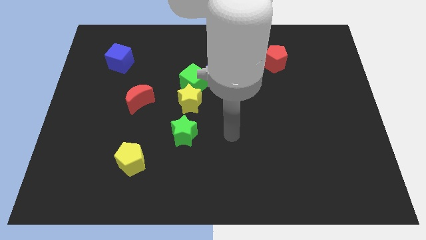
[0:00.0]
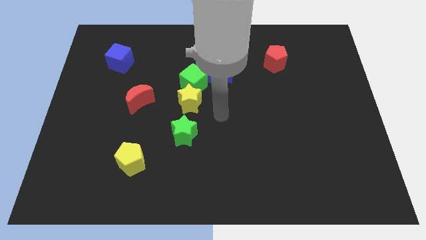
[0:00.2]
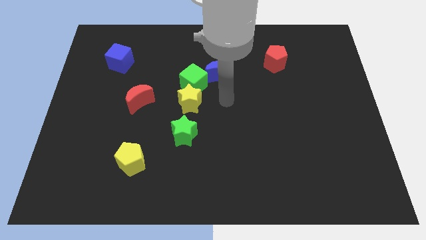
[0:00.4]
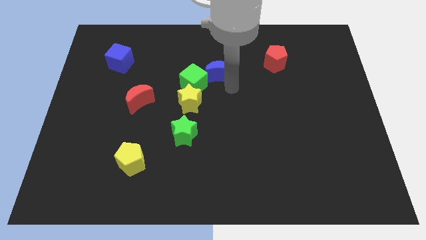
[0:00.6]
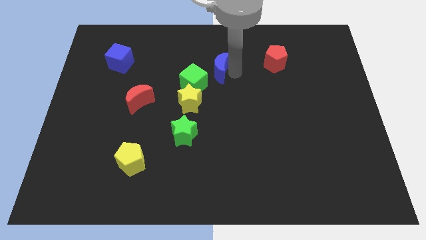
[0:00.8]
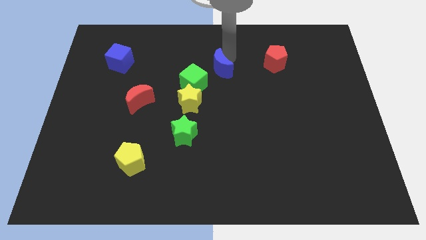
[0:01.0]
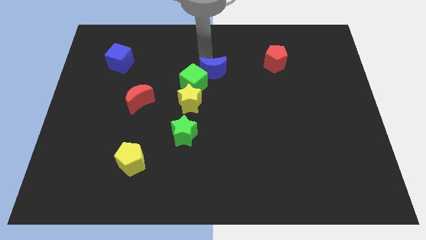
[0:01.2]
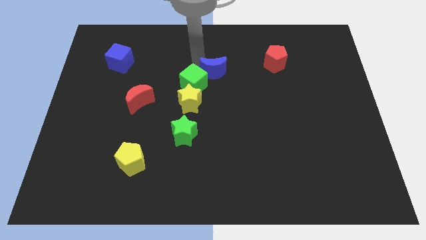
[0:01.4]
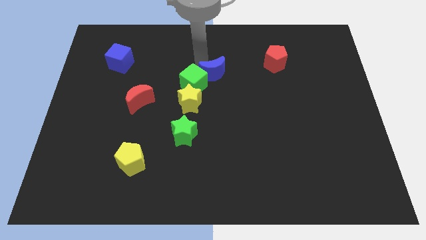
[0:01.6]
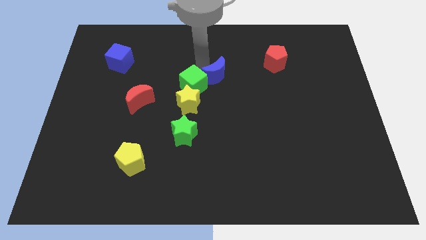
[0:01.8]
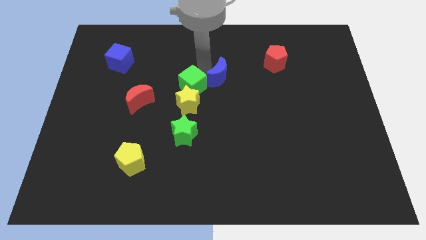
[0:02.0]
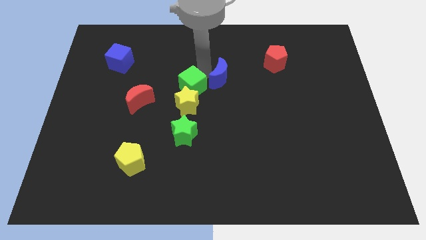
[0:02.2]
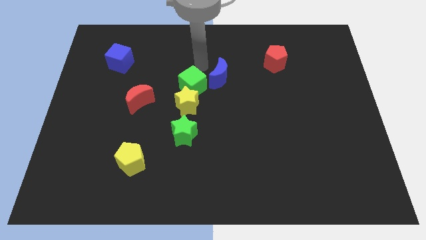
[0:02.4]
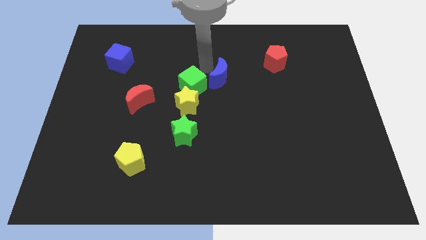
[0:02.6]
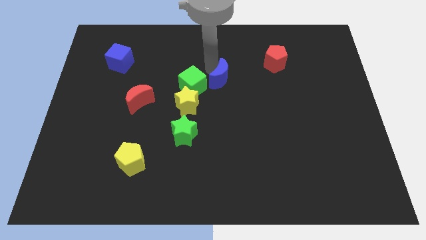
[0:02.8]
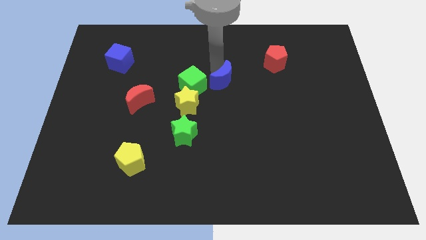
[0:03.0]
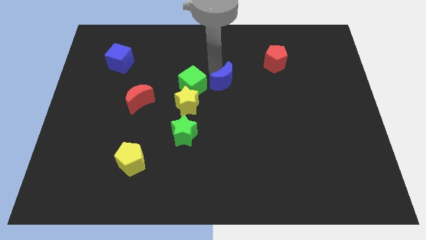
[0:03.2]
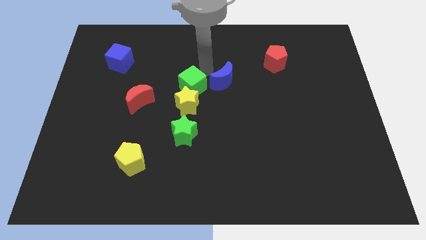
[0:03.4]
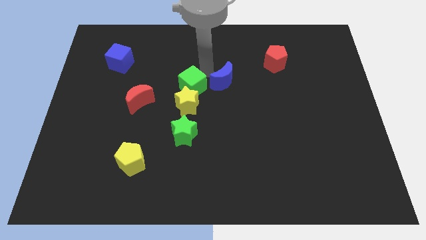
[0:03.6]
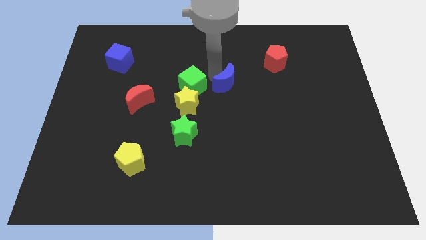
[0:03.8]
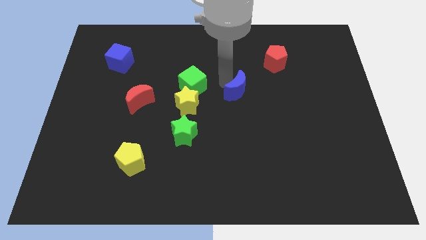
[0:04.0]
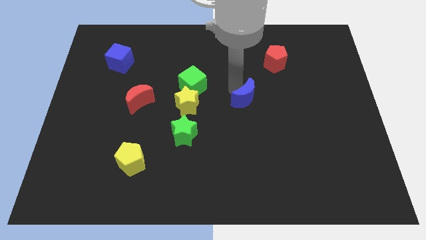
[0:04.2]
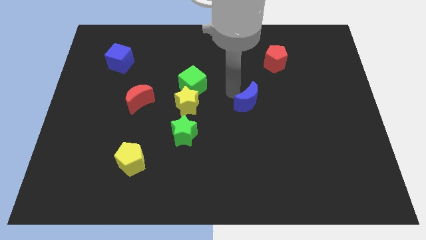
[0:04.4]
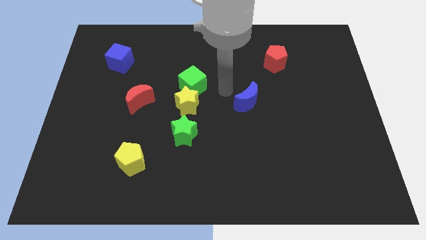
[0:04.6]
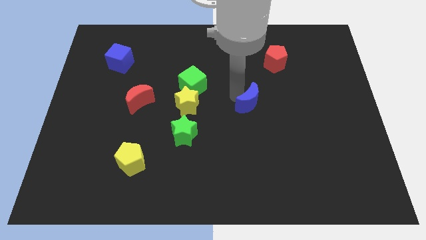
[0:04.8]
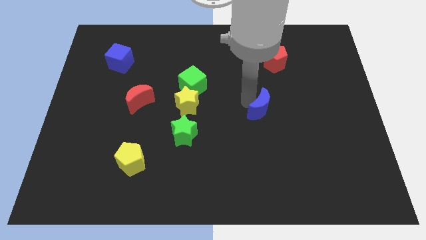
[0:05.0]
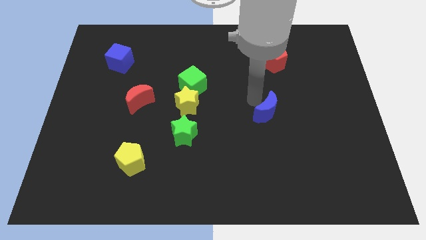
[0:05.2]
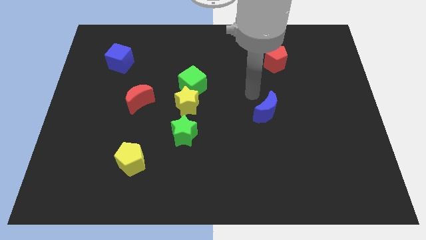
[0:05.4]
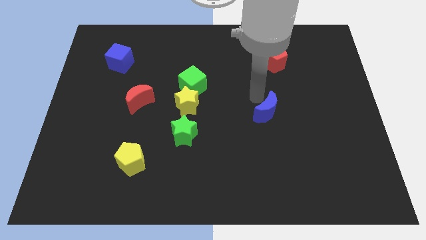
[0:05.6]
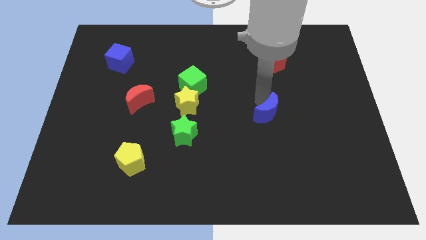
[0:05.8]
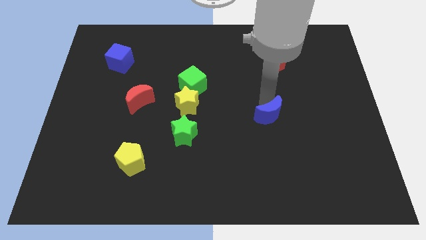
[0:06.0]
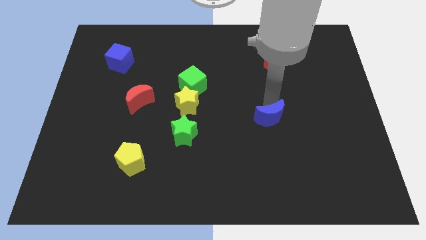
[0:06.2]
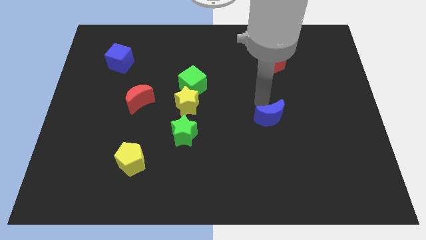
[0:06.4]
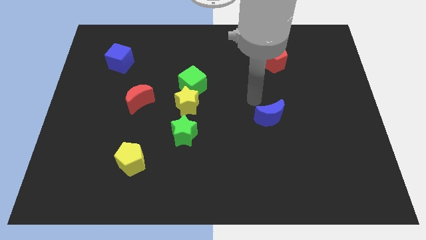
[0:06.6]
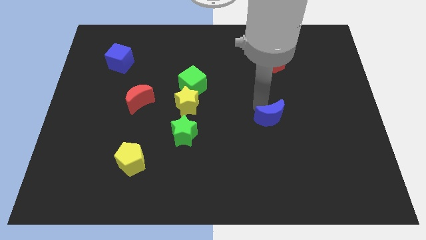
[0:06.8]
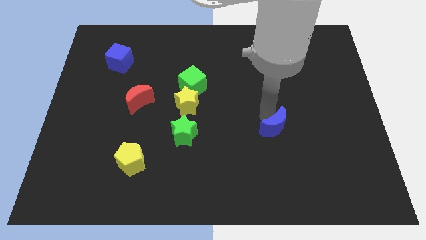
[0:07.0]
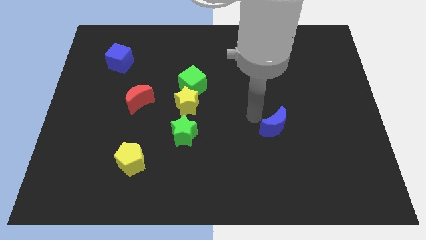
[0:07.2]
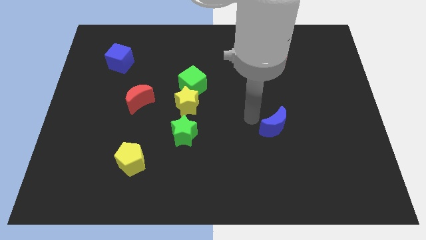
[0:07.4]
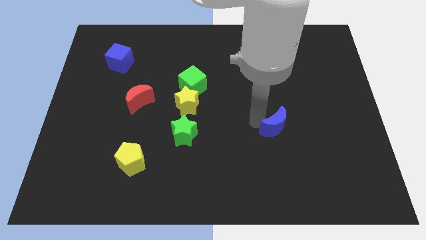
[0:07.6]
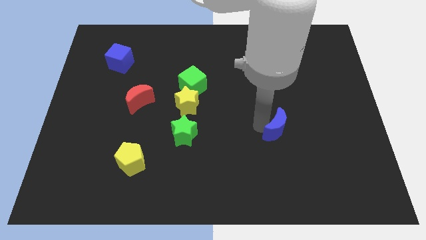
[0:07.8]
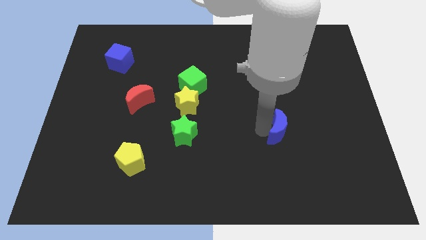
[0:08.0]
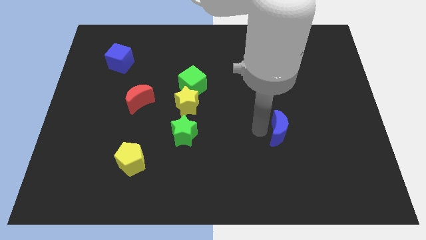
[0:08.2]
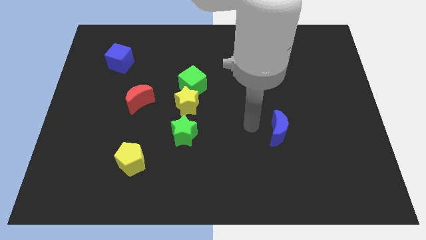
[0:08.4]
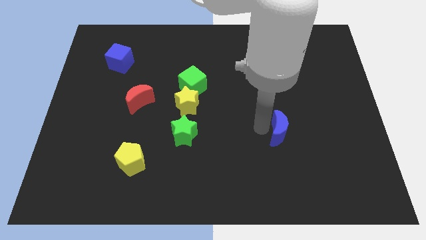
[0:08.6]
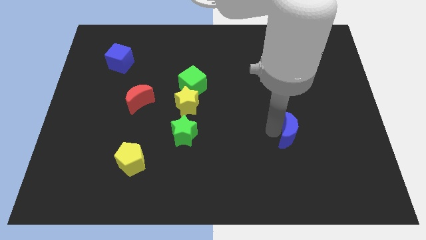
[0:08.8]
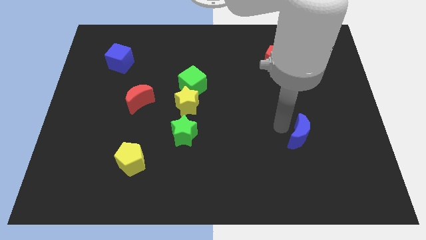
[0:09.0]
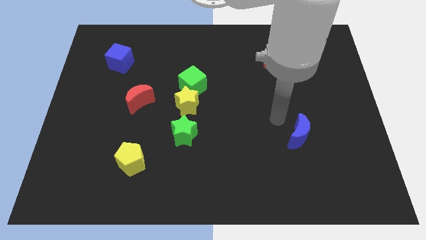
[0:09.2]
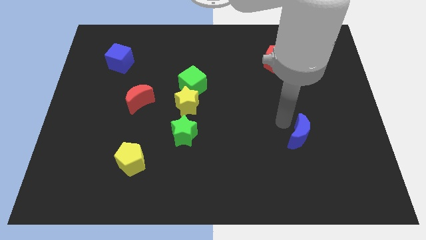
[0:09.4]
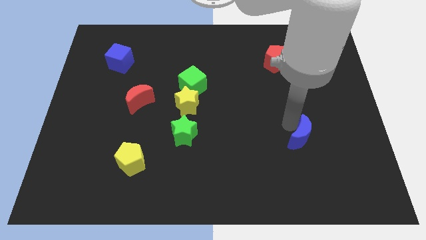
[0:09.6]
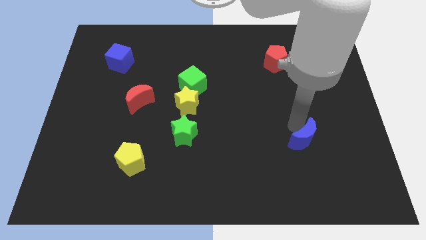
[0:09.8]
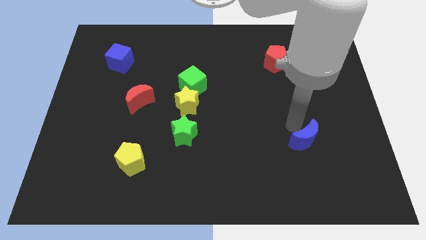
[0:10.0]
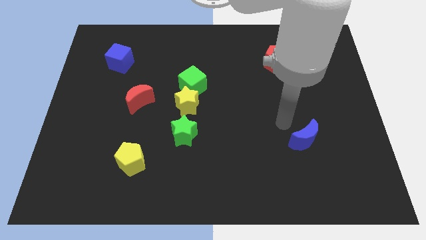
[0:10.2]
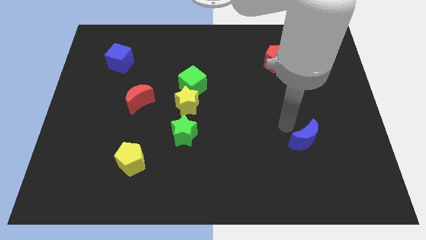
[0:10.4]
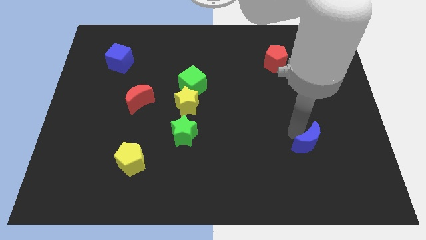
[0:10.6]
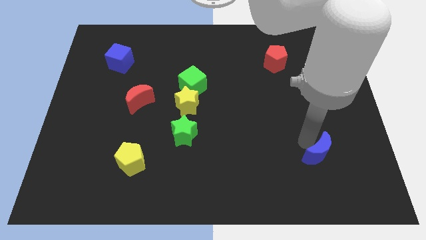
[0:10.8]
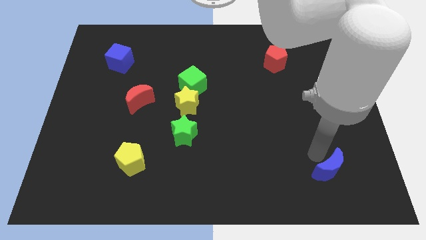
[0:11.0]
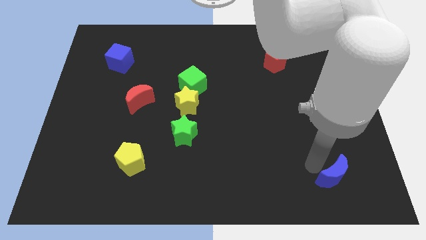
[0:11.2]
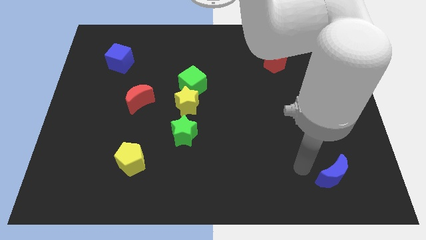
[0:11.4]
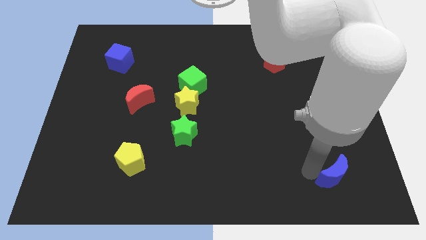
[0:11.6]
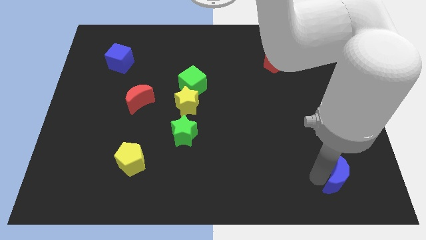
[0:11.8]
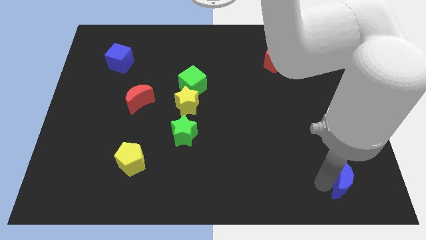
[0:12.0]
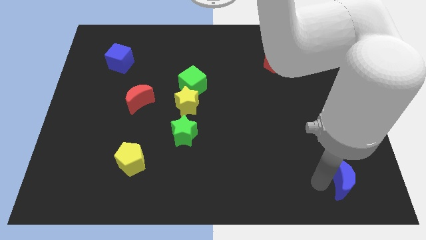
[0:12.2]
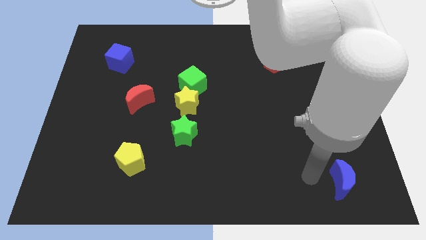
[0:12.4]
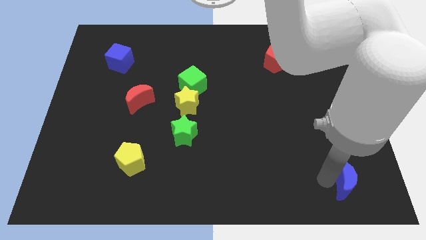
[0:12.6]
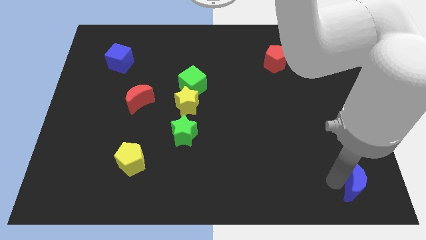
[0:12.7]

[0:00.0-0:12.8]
slide the blue moon to the lower right corner

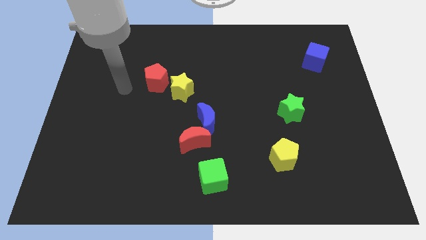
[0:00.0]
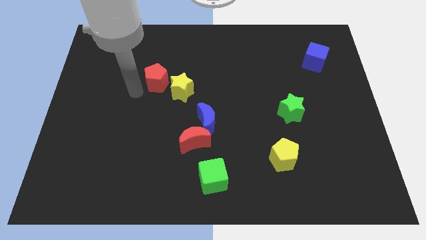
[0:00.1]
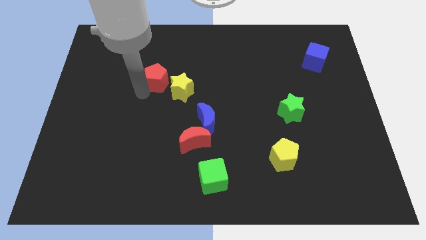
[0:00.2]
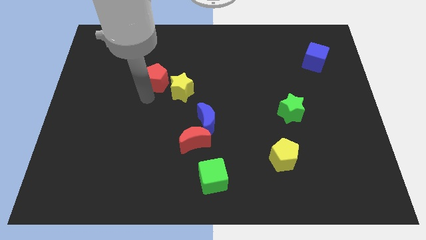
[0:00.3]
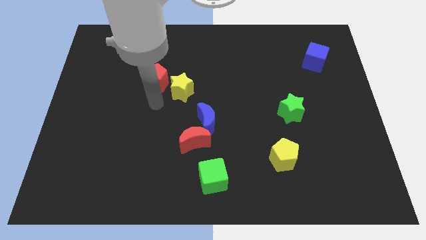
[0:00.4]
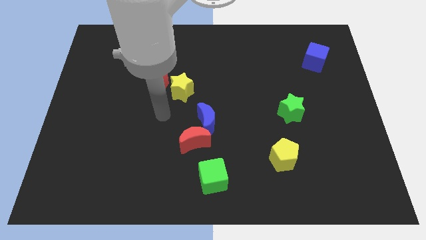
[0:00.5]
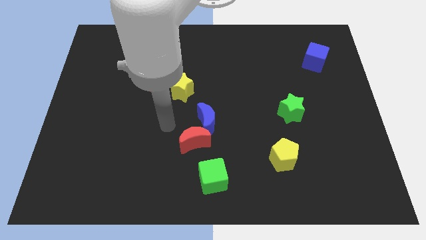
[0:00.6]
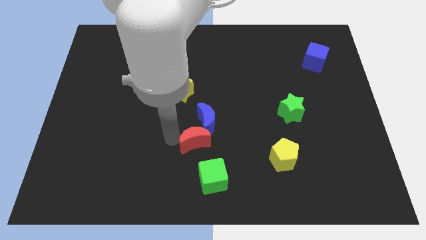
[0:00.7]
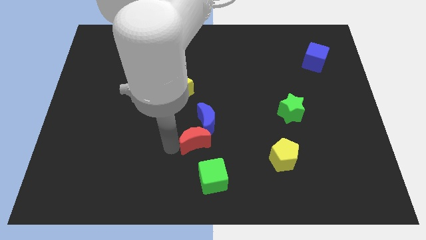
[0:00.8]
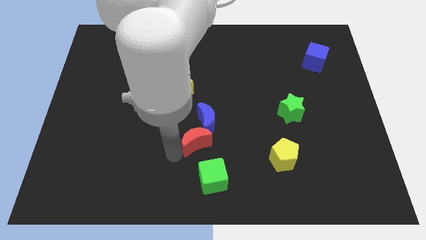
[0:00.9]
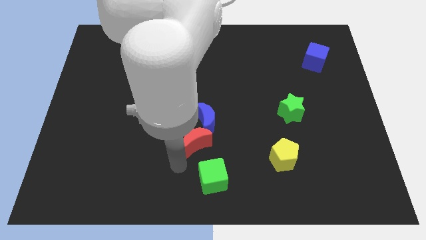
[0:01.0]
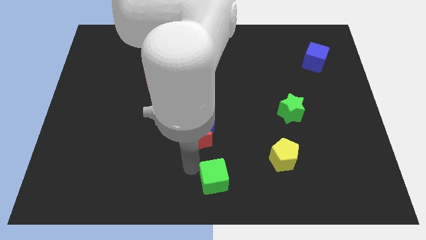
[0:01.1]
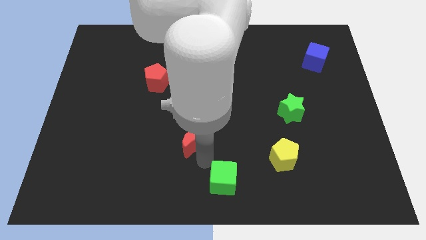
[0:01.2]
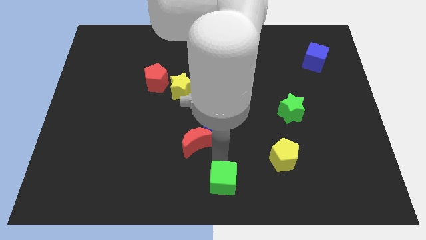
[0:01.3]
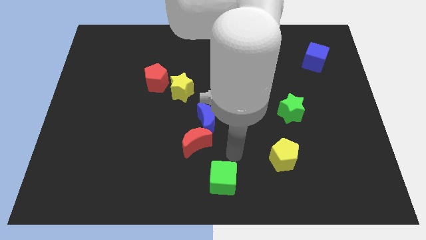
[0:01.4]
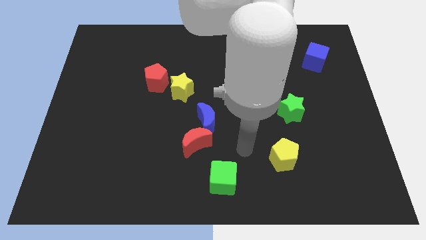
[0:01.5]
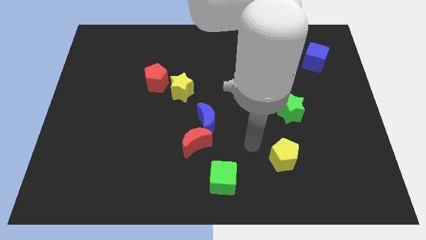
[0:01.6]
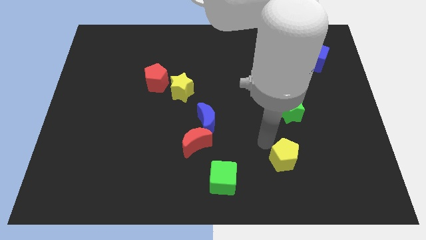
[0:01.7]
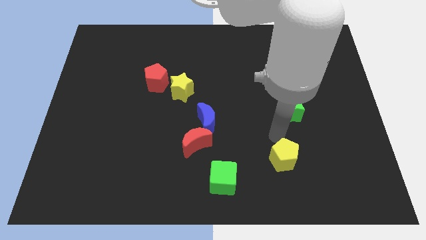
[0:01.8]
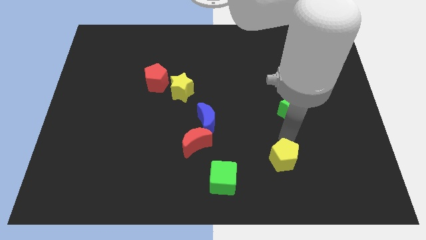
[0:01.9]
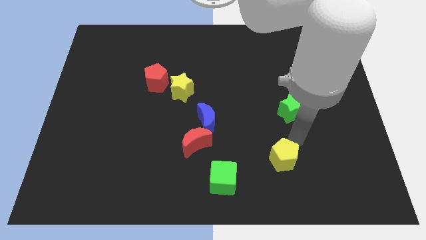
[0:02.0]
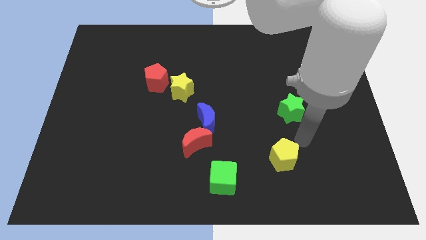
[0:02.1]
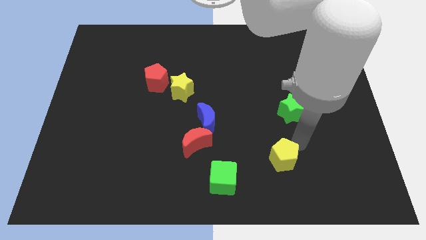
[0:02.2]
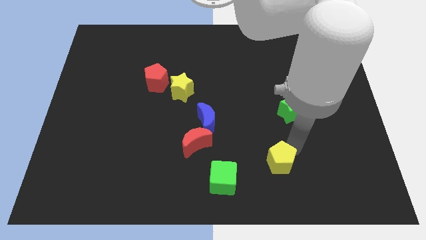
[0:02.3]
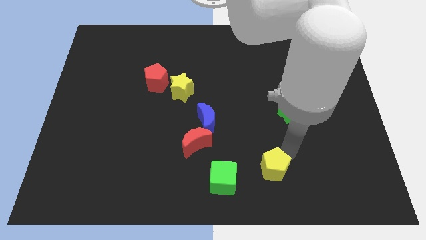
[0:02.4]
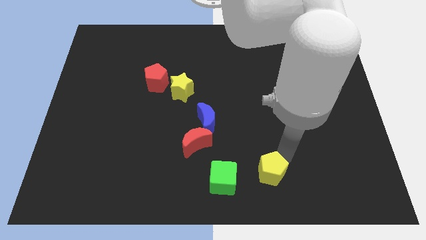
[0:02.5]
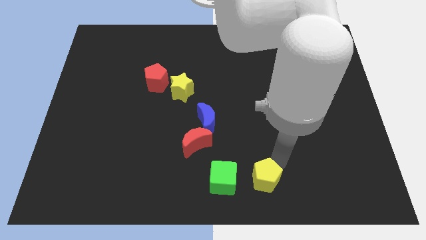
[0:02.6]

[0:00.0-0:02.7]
move the yellow pentagon to the bottom
